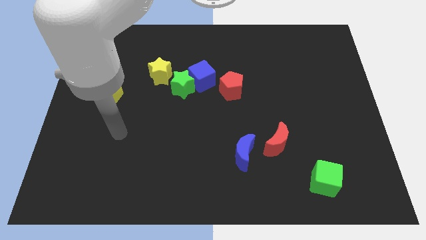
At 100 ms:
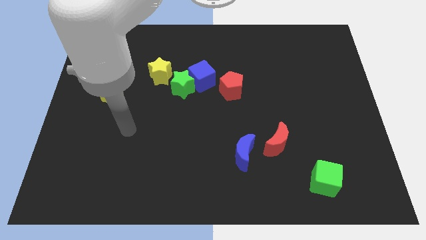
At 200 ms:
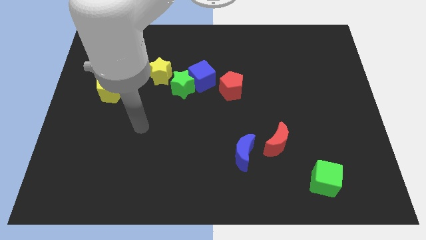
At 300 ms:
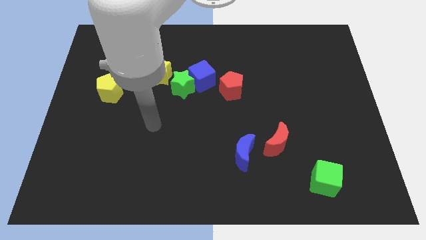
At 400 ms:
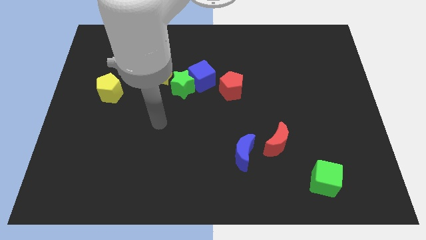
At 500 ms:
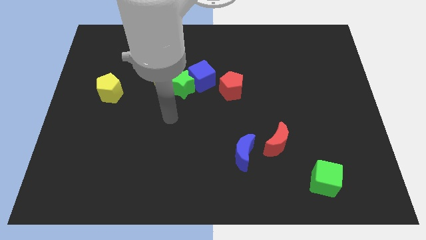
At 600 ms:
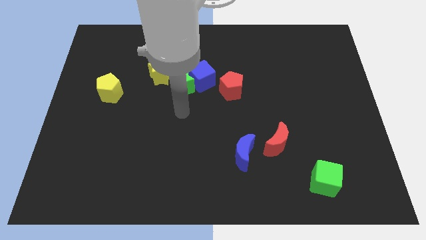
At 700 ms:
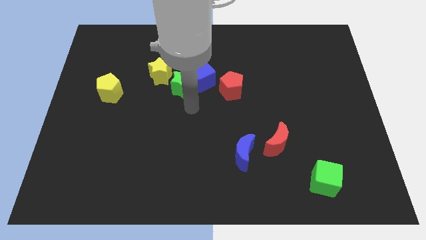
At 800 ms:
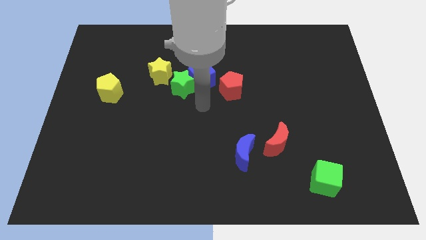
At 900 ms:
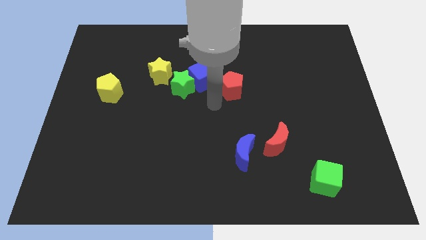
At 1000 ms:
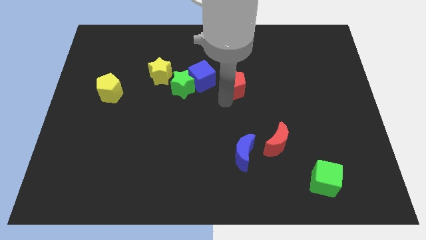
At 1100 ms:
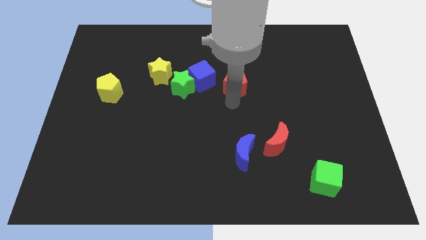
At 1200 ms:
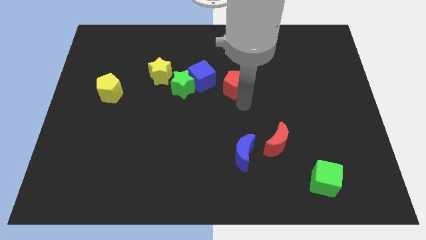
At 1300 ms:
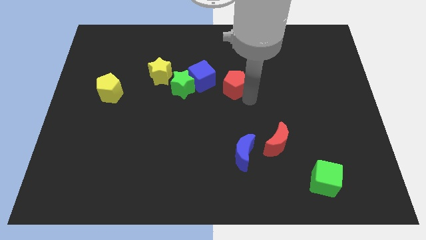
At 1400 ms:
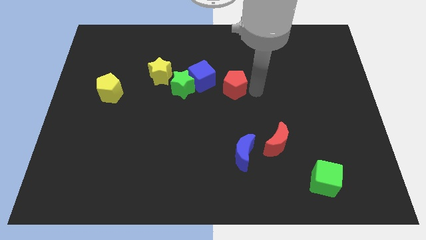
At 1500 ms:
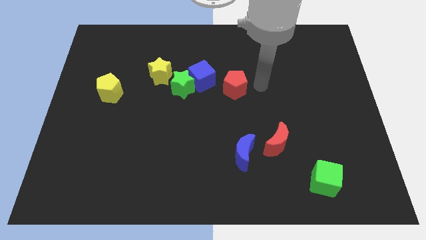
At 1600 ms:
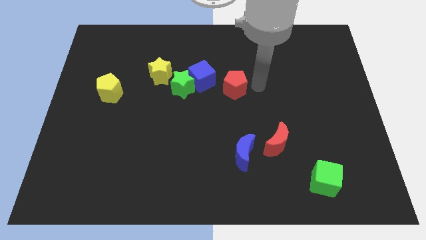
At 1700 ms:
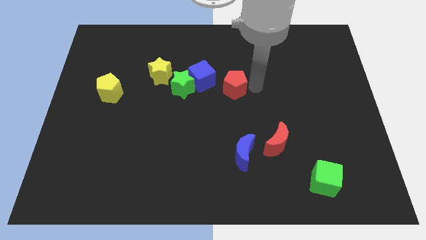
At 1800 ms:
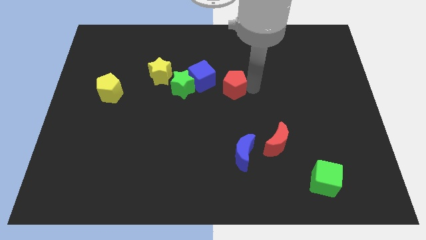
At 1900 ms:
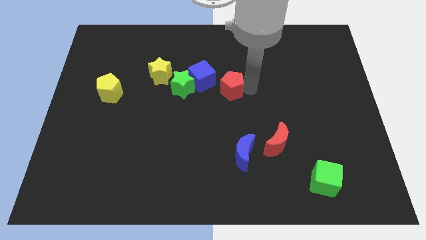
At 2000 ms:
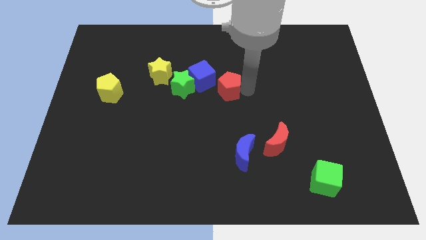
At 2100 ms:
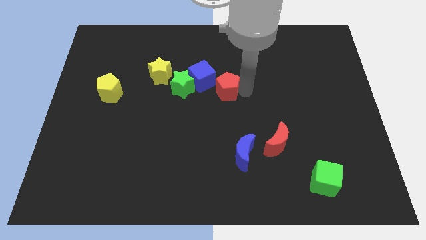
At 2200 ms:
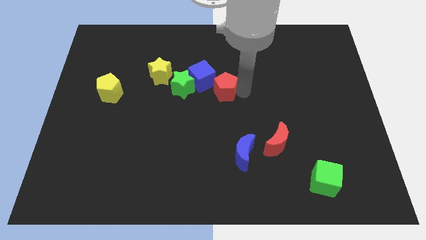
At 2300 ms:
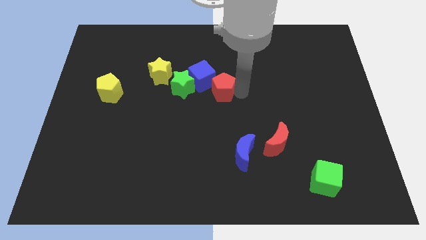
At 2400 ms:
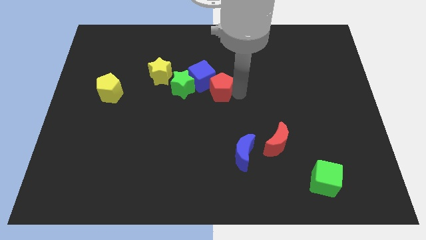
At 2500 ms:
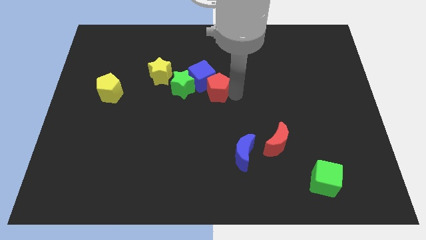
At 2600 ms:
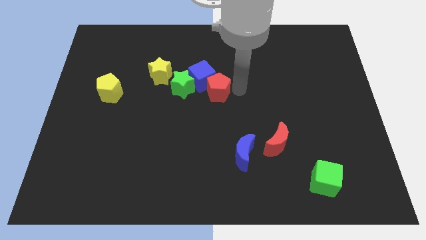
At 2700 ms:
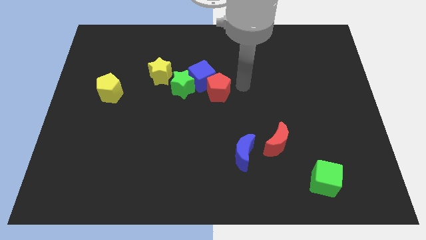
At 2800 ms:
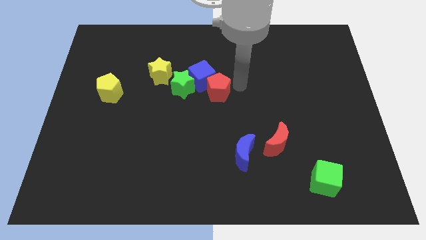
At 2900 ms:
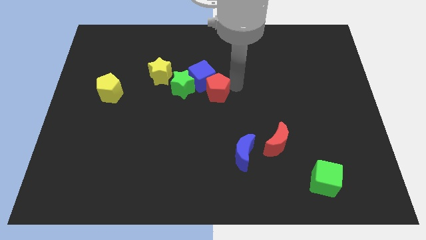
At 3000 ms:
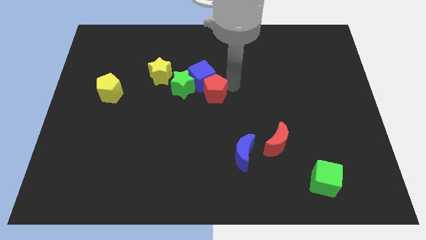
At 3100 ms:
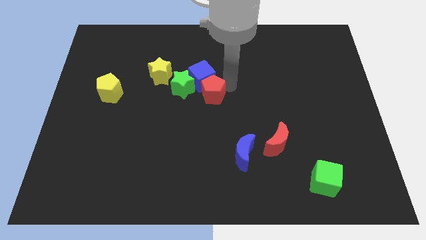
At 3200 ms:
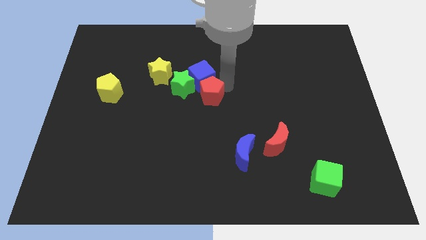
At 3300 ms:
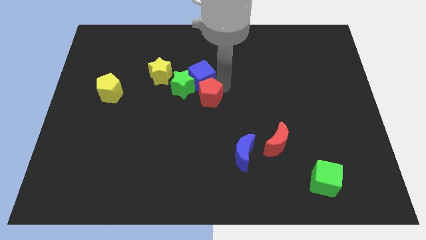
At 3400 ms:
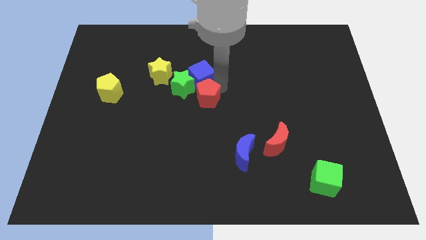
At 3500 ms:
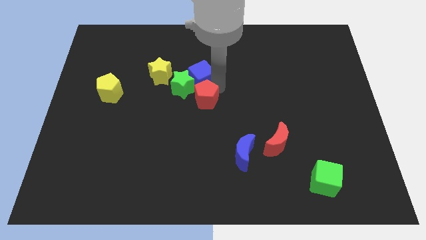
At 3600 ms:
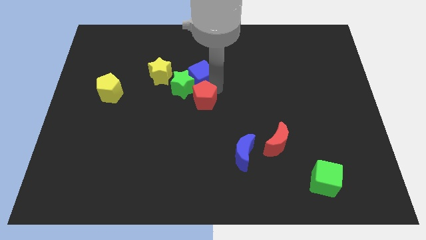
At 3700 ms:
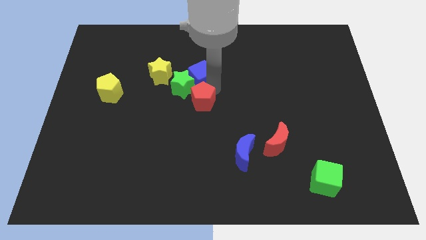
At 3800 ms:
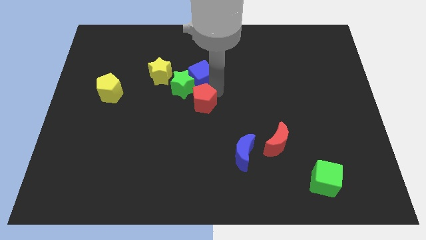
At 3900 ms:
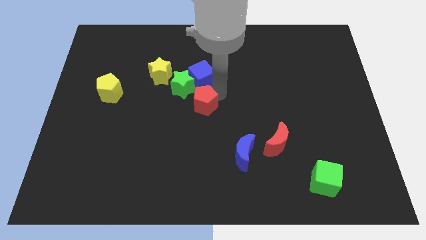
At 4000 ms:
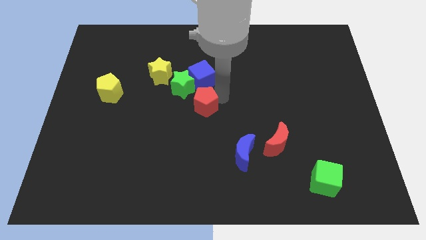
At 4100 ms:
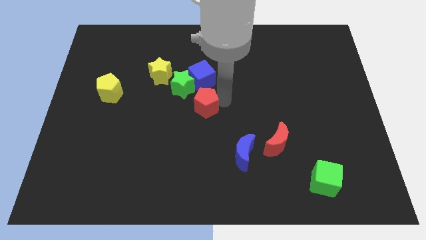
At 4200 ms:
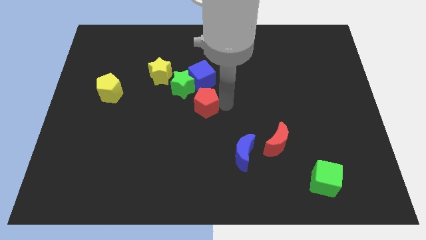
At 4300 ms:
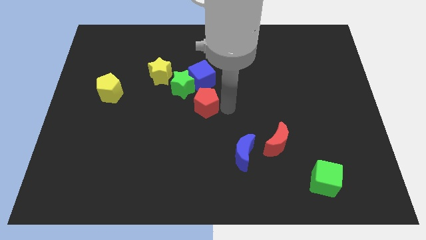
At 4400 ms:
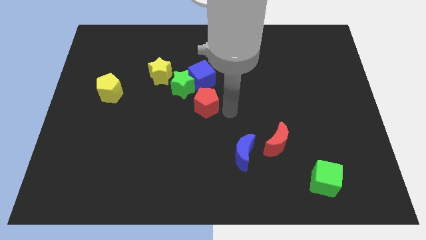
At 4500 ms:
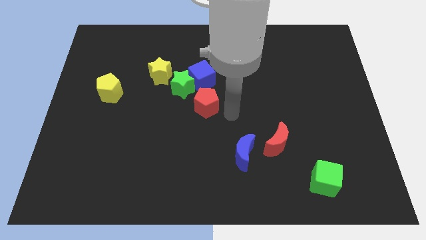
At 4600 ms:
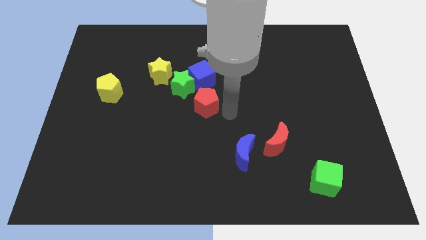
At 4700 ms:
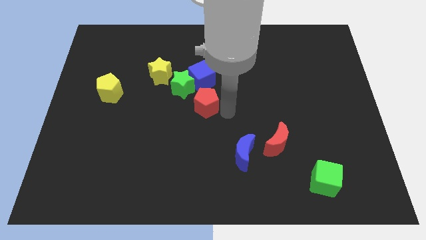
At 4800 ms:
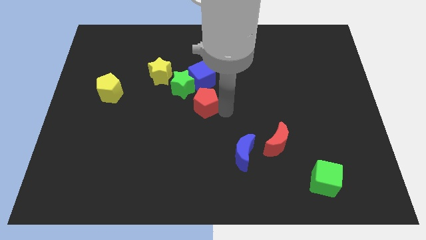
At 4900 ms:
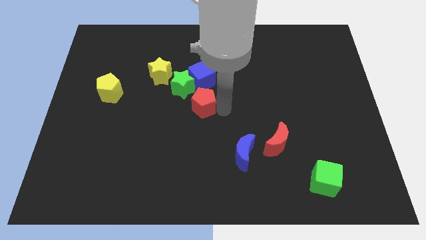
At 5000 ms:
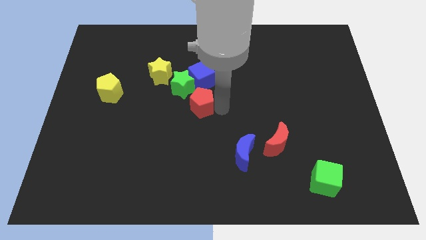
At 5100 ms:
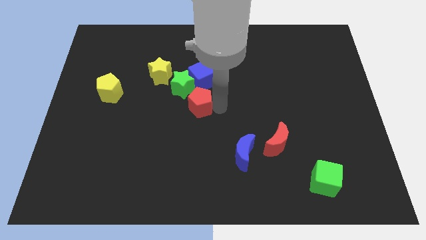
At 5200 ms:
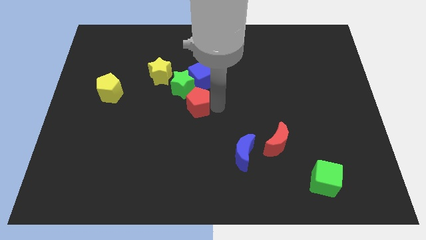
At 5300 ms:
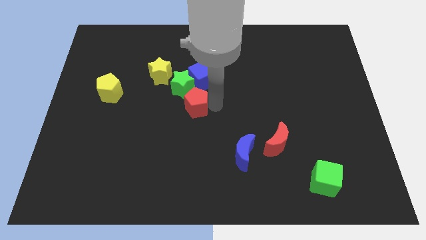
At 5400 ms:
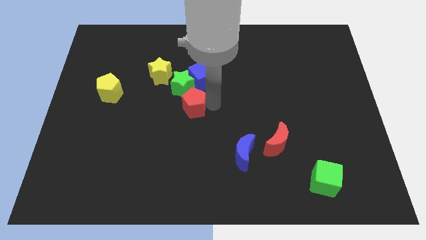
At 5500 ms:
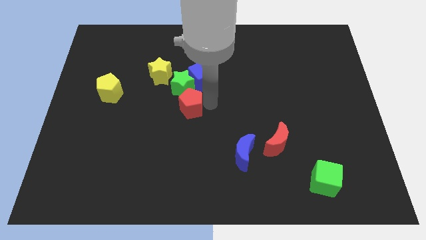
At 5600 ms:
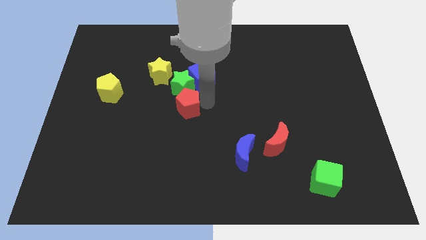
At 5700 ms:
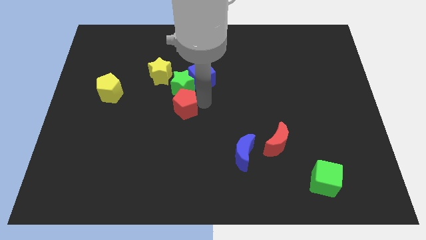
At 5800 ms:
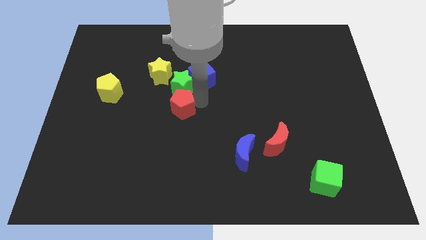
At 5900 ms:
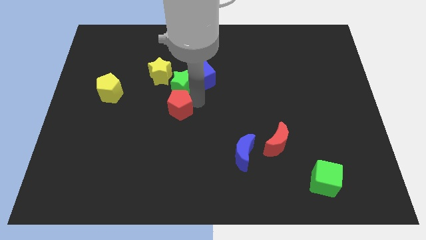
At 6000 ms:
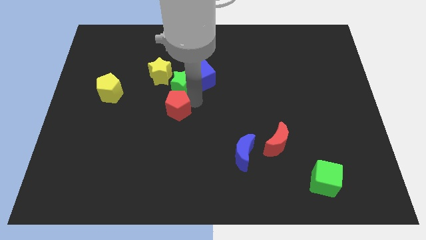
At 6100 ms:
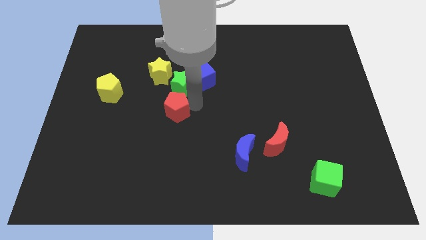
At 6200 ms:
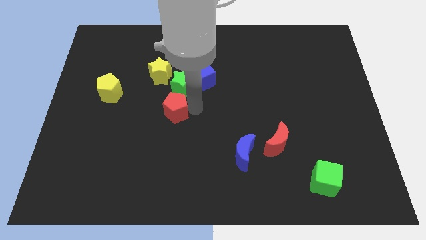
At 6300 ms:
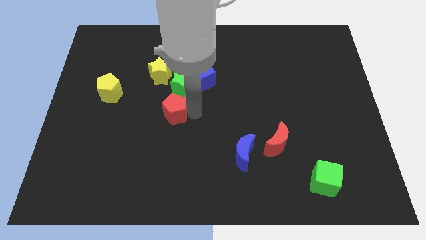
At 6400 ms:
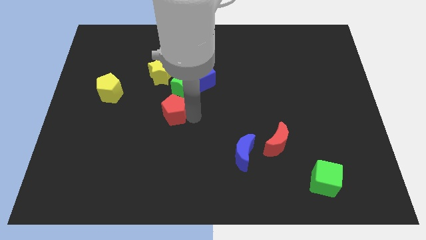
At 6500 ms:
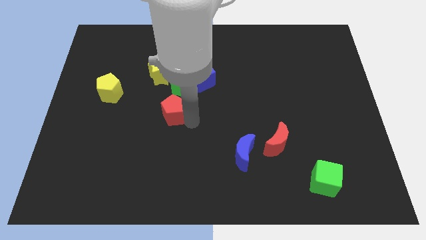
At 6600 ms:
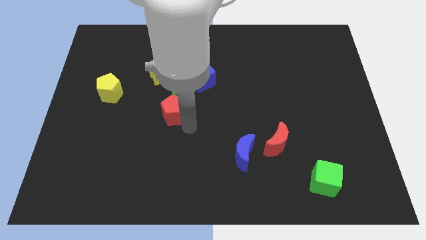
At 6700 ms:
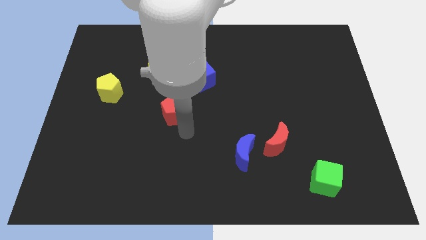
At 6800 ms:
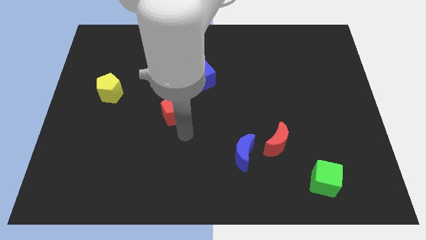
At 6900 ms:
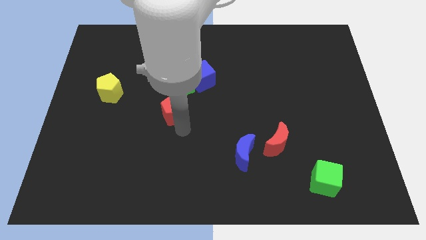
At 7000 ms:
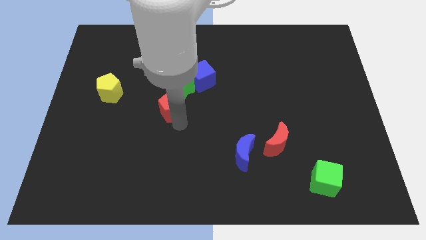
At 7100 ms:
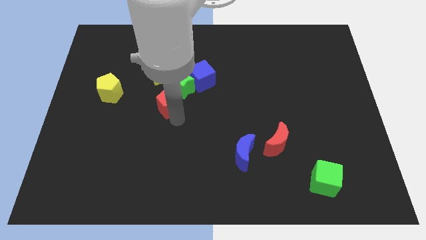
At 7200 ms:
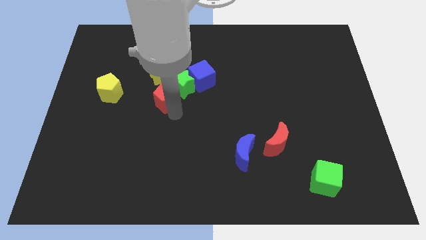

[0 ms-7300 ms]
put the red pentagon to the right side of the yellow pentagon

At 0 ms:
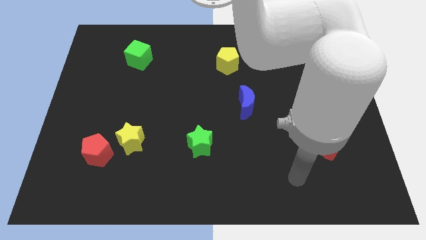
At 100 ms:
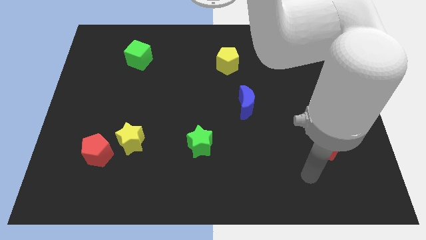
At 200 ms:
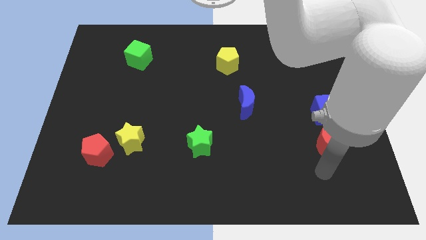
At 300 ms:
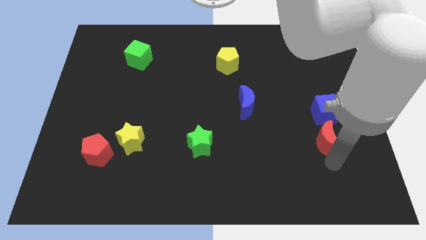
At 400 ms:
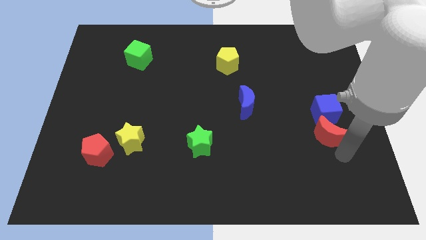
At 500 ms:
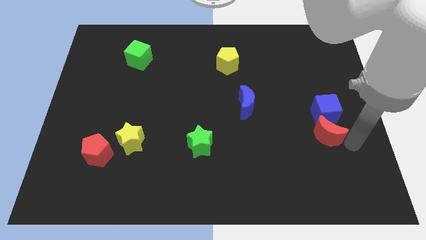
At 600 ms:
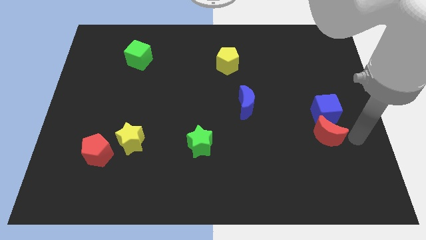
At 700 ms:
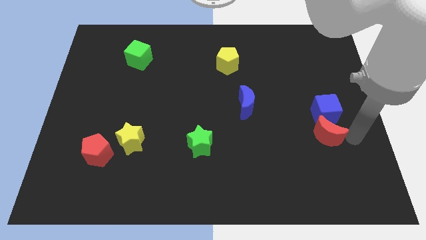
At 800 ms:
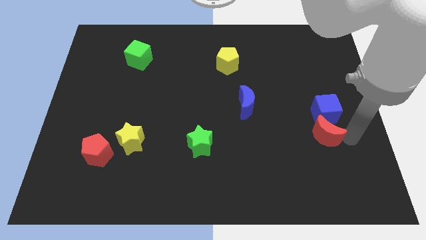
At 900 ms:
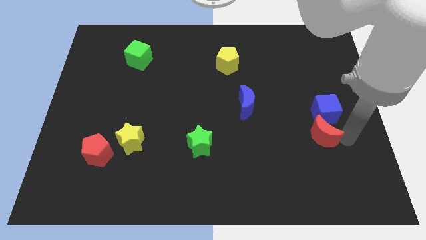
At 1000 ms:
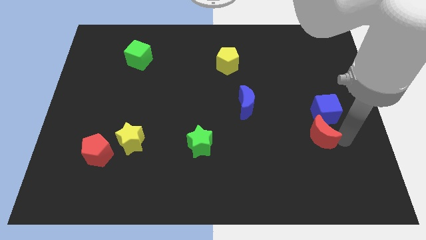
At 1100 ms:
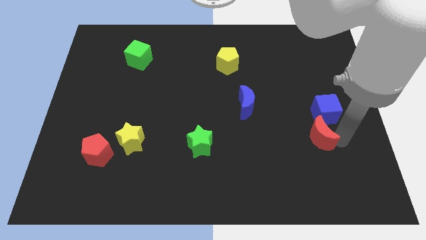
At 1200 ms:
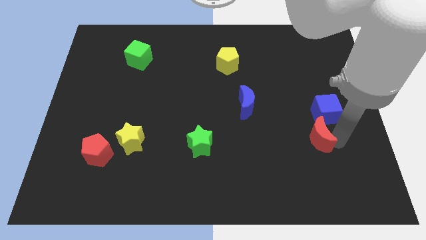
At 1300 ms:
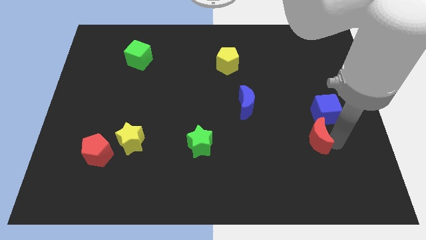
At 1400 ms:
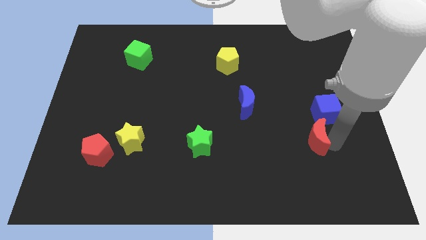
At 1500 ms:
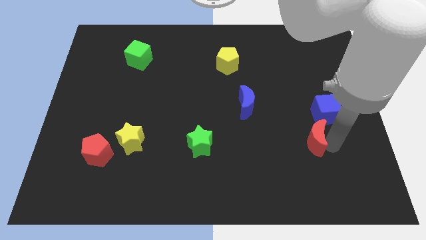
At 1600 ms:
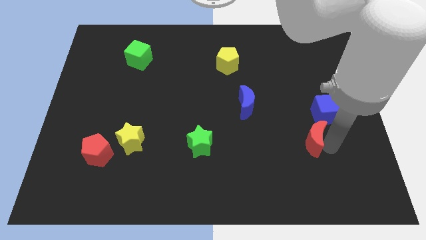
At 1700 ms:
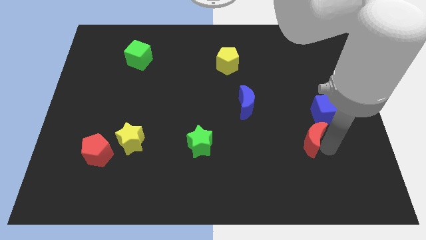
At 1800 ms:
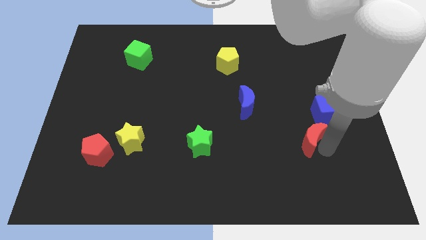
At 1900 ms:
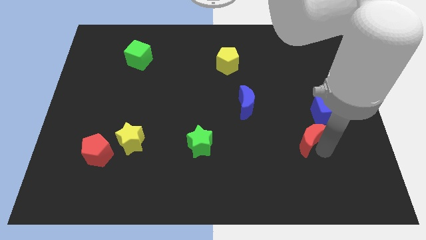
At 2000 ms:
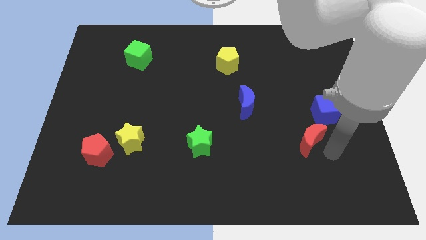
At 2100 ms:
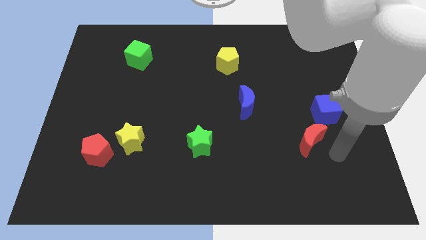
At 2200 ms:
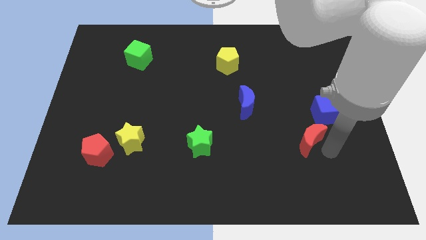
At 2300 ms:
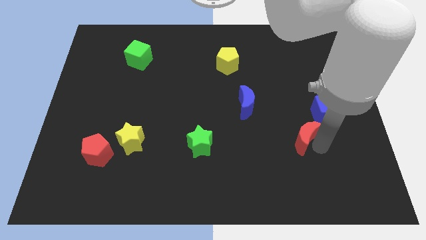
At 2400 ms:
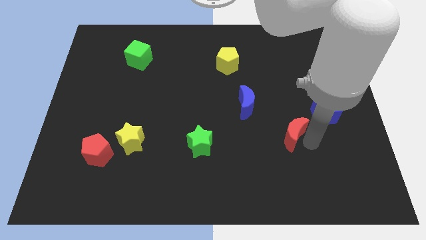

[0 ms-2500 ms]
put the red moon to the bottom right of the blue moon
